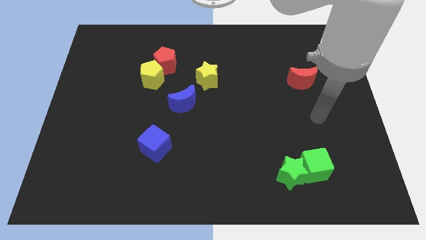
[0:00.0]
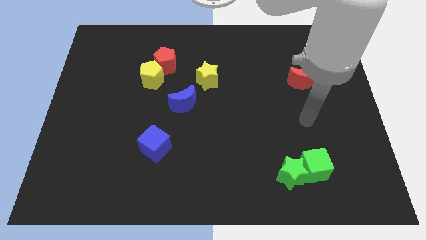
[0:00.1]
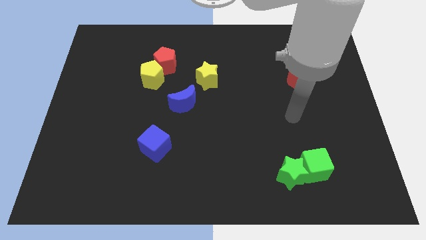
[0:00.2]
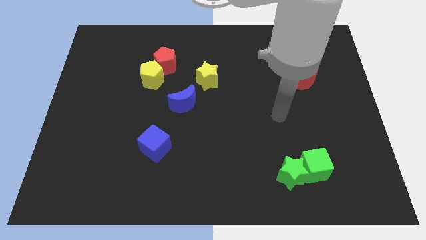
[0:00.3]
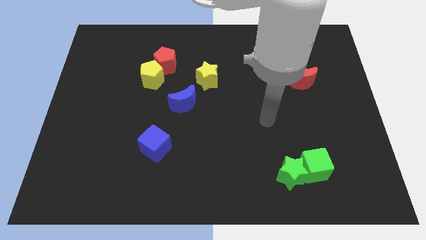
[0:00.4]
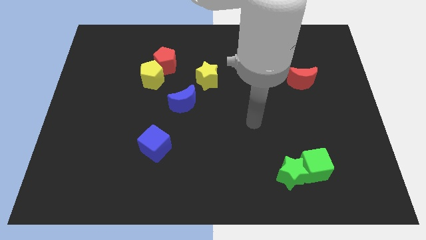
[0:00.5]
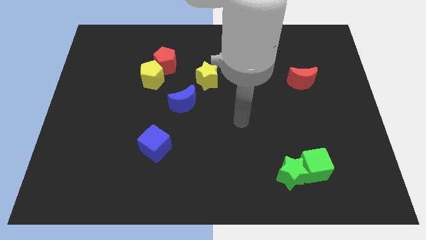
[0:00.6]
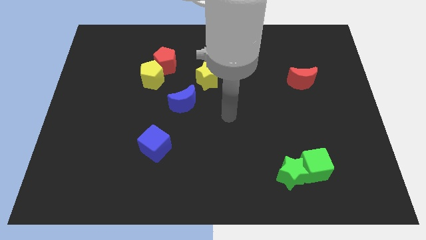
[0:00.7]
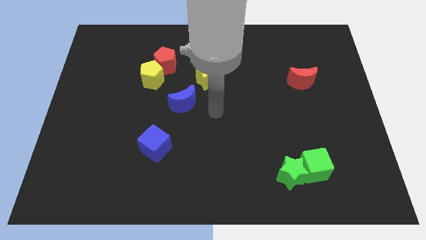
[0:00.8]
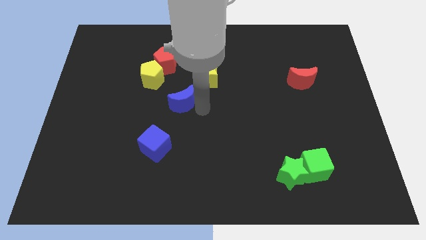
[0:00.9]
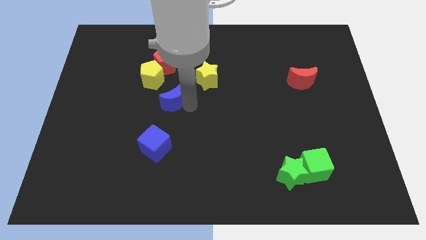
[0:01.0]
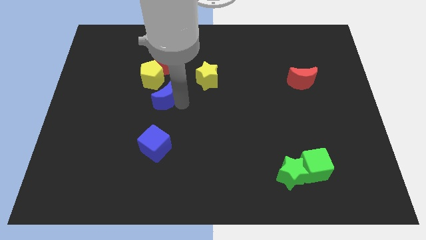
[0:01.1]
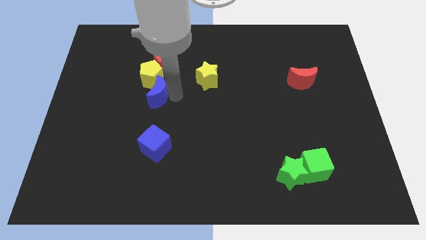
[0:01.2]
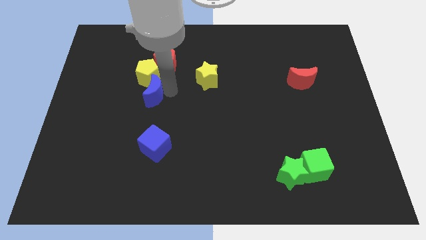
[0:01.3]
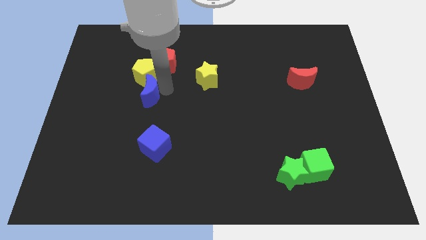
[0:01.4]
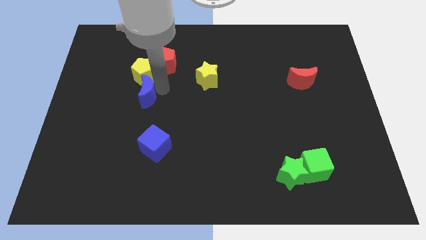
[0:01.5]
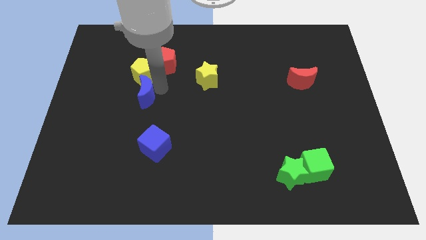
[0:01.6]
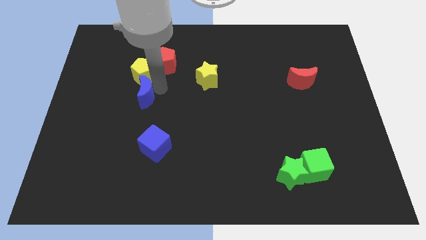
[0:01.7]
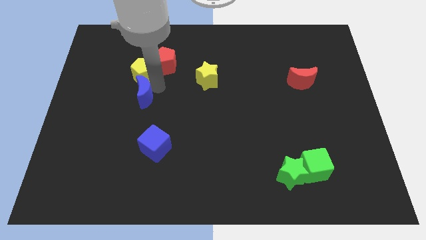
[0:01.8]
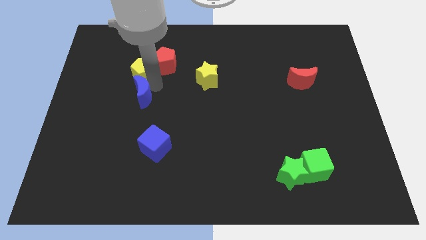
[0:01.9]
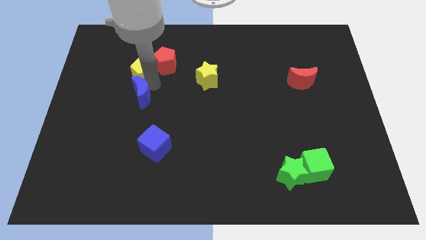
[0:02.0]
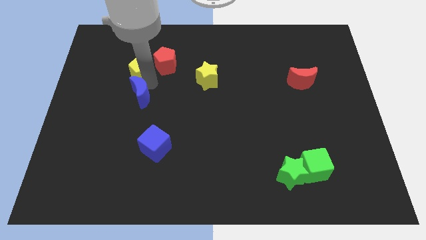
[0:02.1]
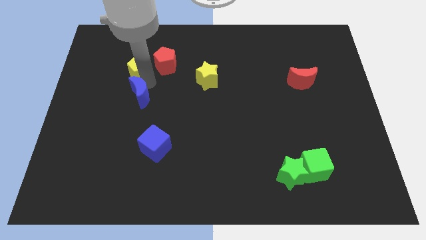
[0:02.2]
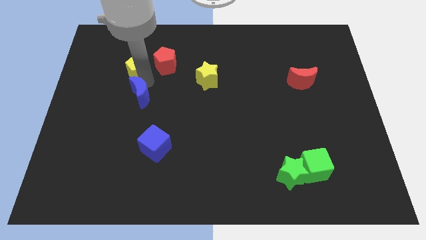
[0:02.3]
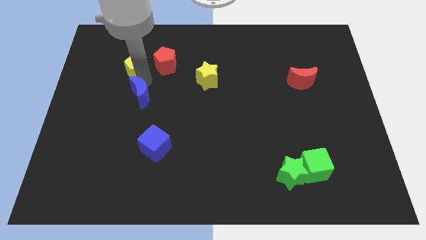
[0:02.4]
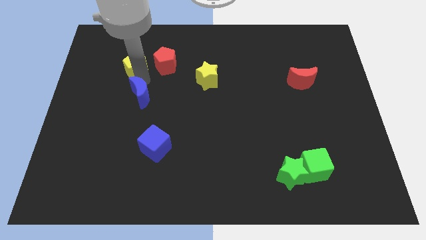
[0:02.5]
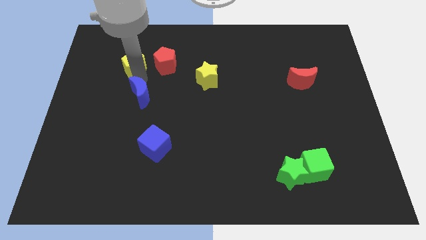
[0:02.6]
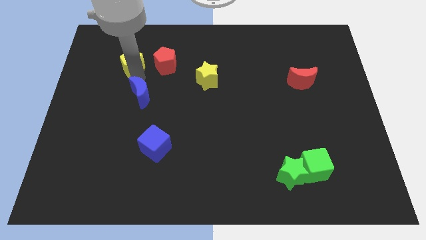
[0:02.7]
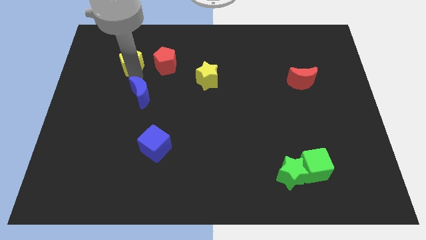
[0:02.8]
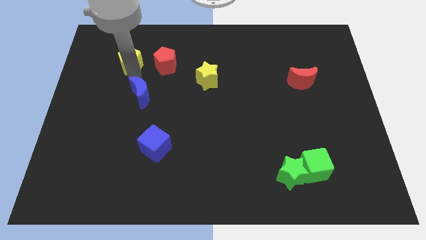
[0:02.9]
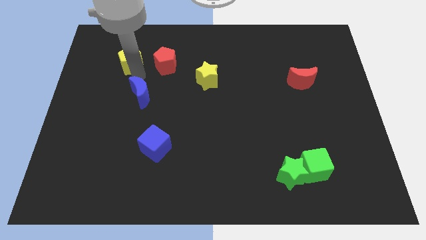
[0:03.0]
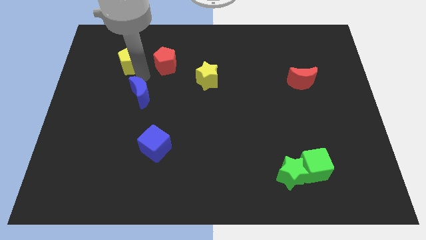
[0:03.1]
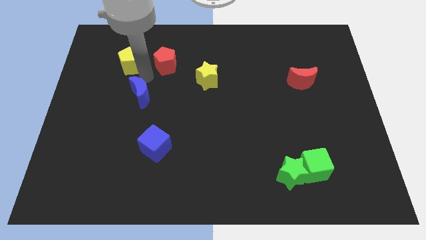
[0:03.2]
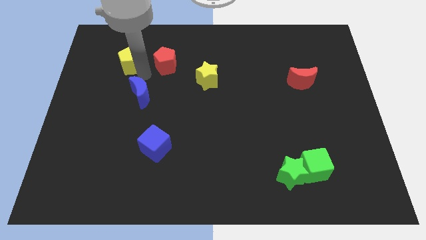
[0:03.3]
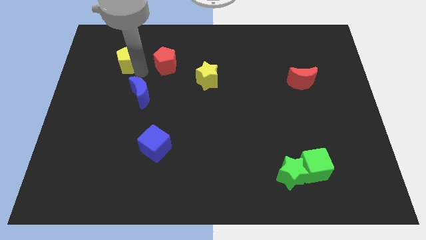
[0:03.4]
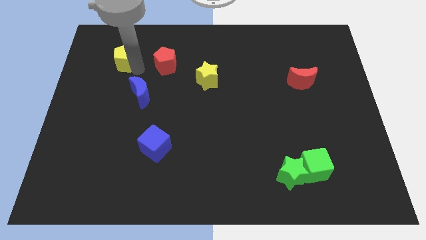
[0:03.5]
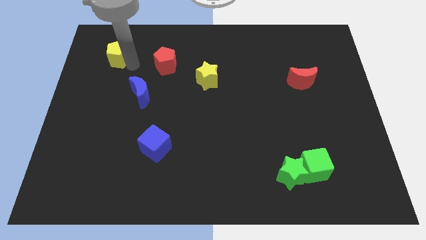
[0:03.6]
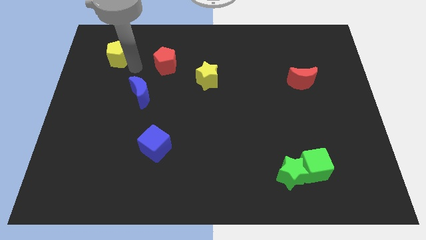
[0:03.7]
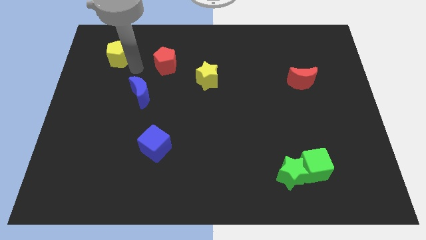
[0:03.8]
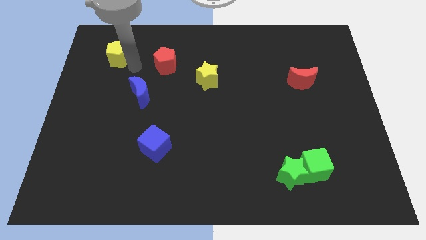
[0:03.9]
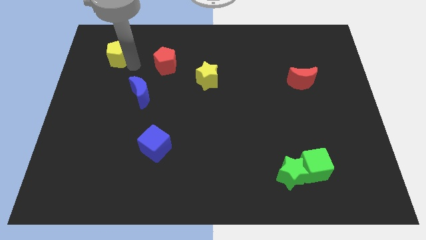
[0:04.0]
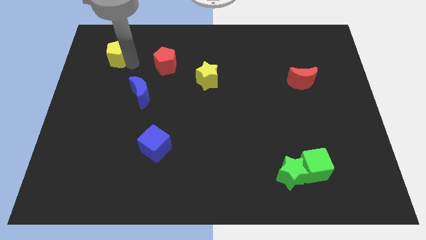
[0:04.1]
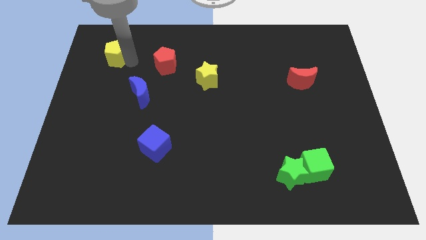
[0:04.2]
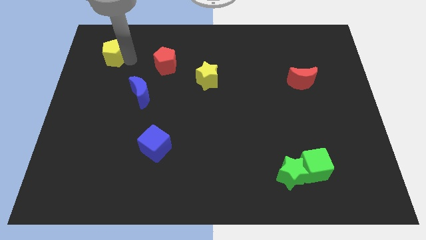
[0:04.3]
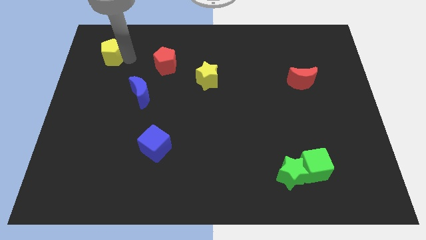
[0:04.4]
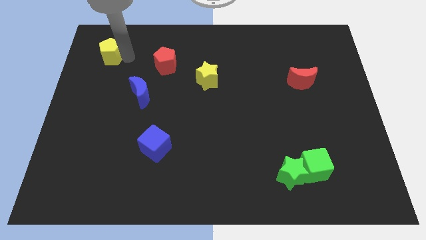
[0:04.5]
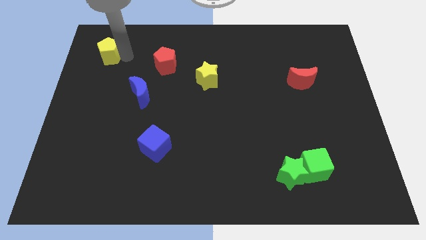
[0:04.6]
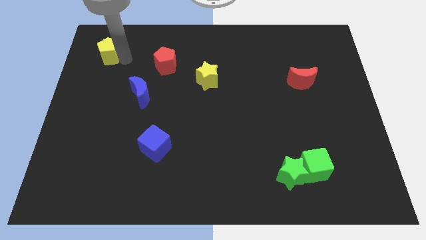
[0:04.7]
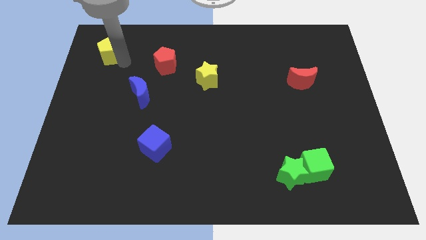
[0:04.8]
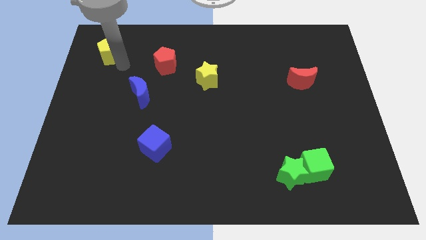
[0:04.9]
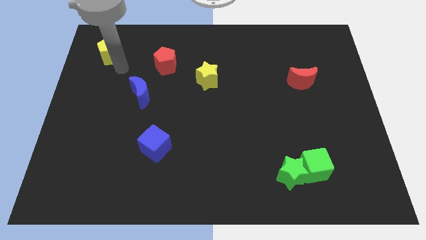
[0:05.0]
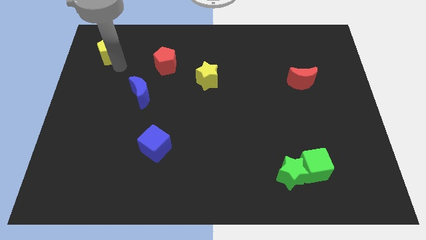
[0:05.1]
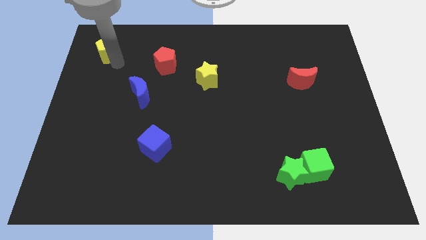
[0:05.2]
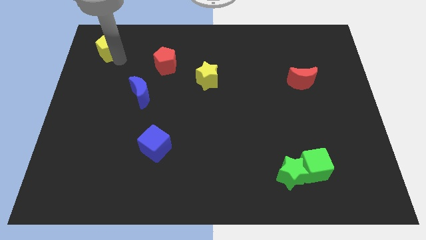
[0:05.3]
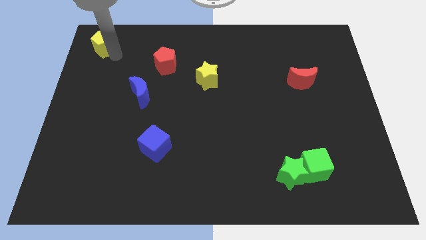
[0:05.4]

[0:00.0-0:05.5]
push the yellow pentagon to the top left of the board

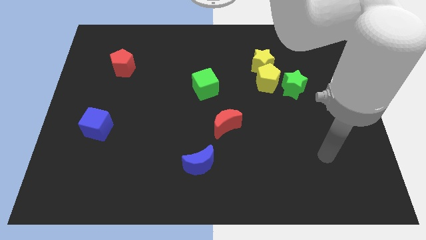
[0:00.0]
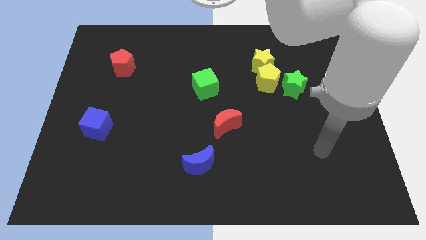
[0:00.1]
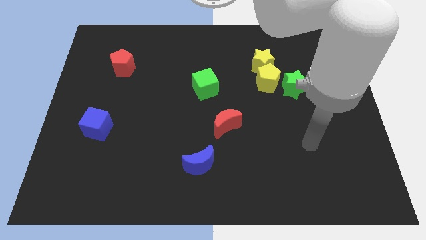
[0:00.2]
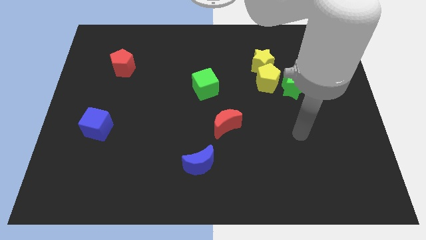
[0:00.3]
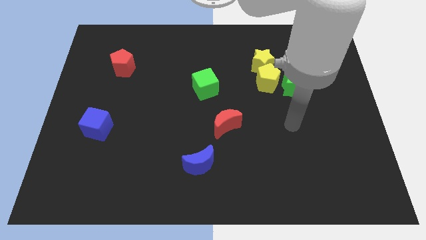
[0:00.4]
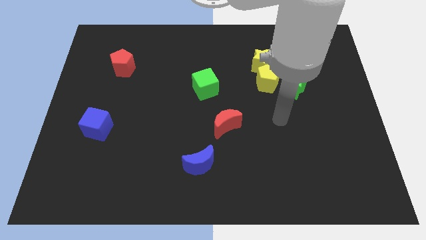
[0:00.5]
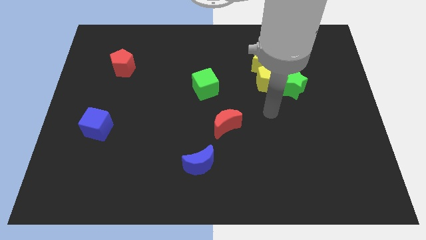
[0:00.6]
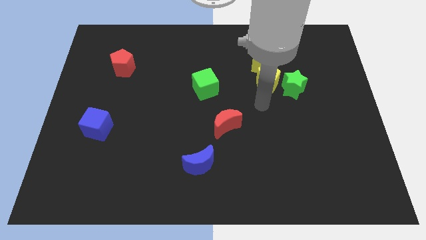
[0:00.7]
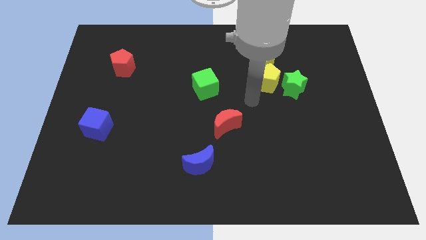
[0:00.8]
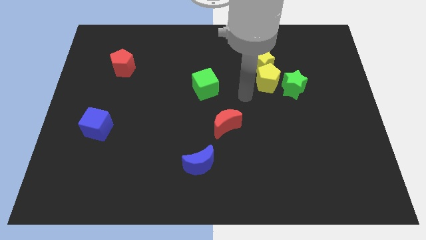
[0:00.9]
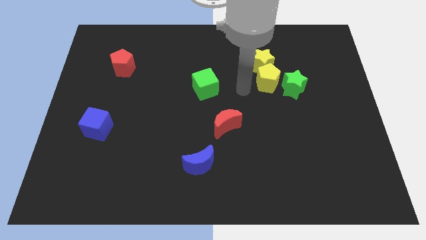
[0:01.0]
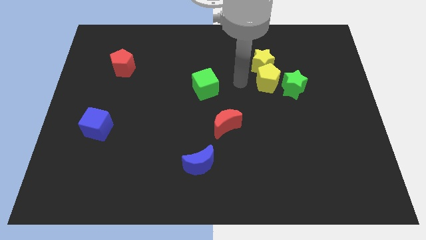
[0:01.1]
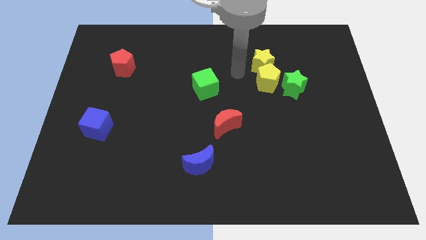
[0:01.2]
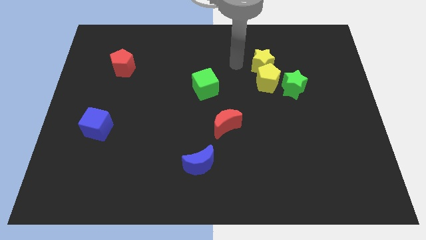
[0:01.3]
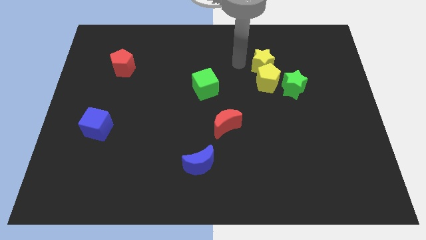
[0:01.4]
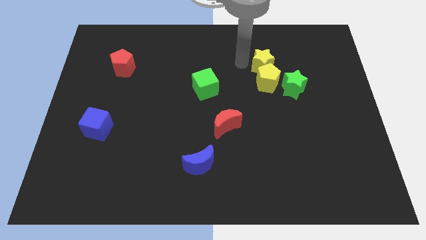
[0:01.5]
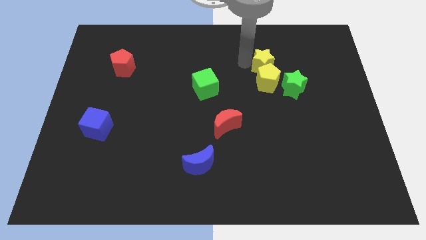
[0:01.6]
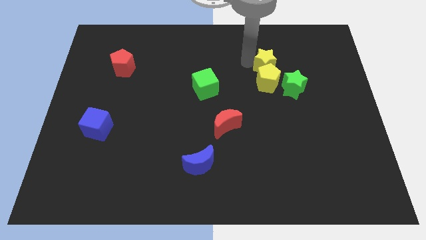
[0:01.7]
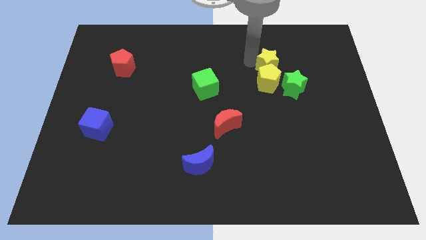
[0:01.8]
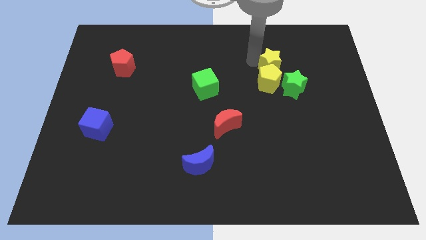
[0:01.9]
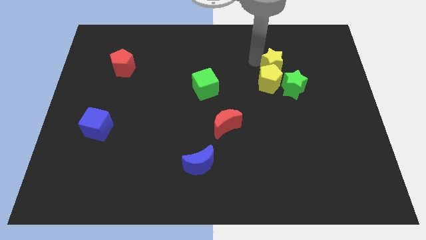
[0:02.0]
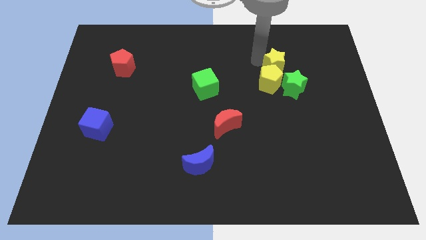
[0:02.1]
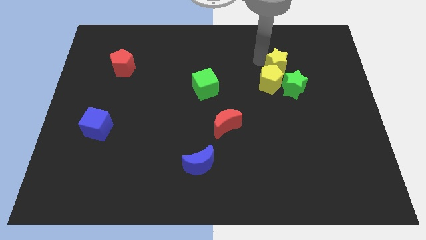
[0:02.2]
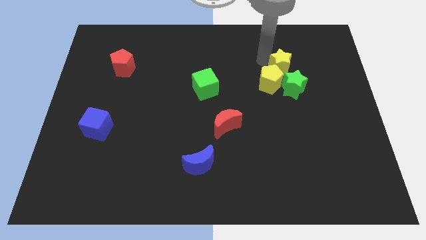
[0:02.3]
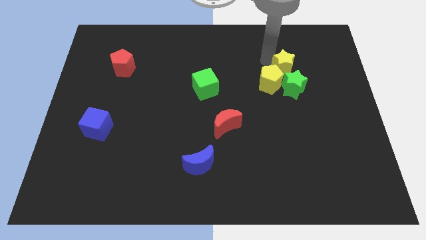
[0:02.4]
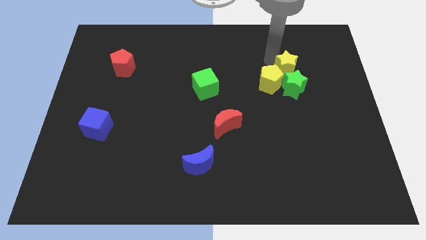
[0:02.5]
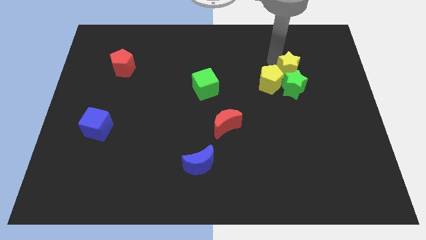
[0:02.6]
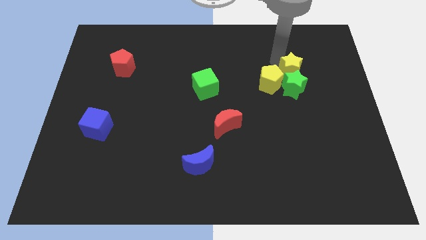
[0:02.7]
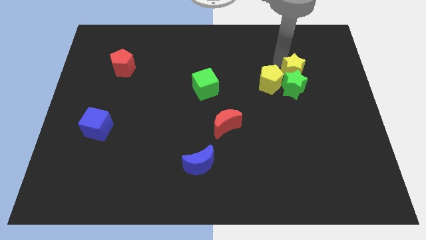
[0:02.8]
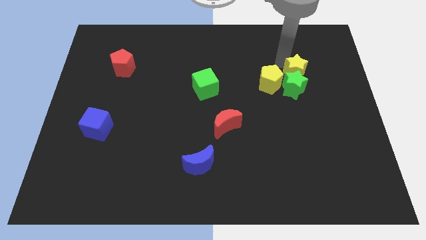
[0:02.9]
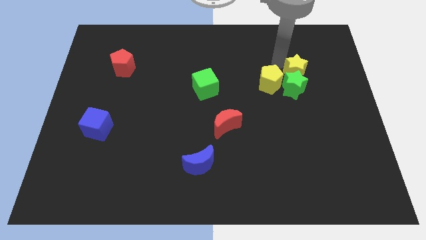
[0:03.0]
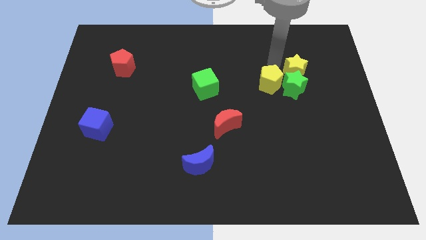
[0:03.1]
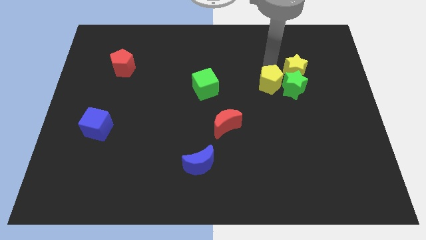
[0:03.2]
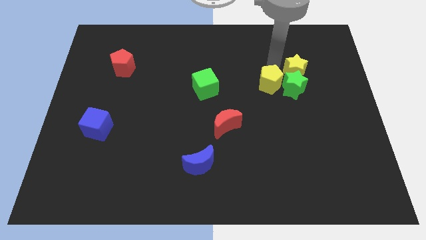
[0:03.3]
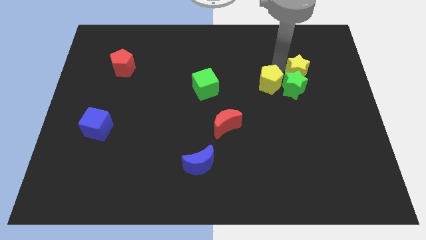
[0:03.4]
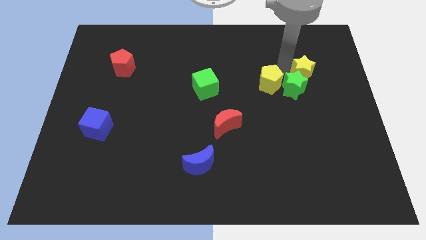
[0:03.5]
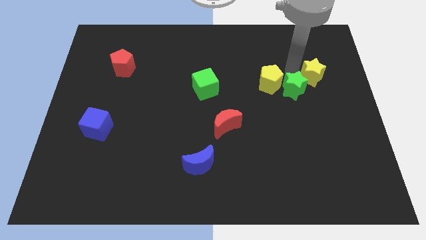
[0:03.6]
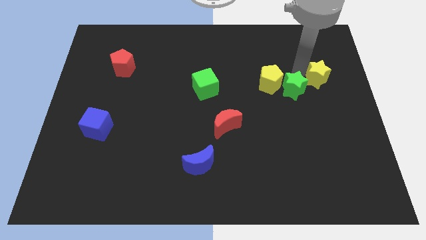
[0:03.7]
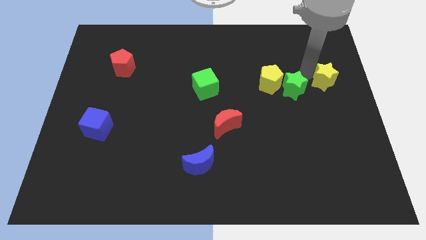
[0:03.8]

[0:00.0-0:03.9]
put the yellow star to the right side
